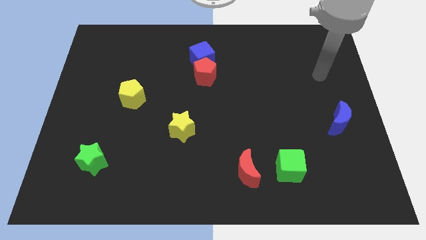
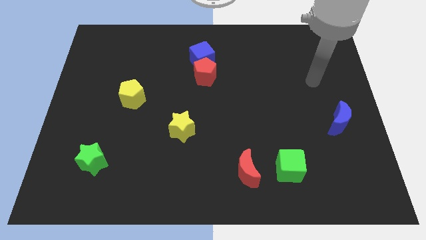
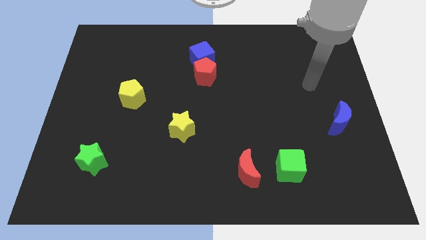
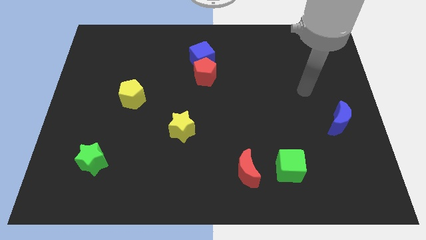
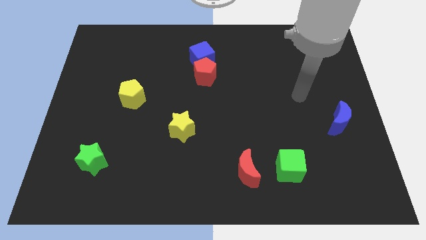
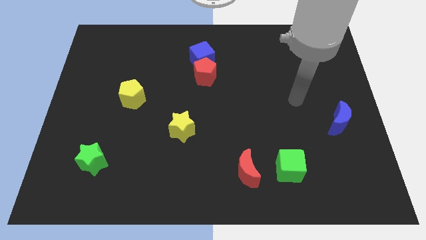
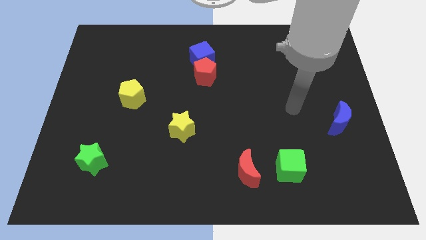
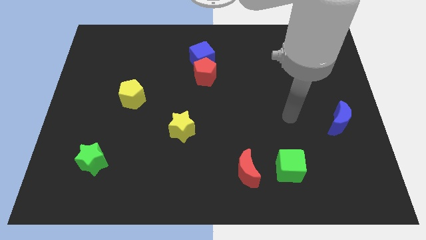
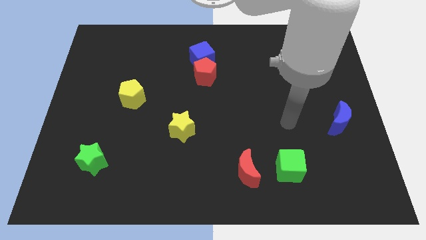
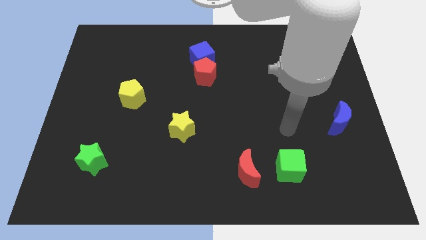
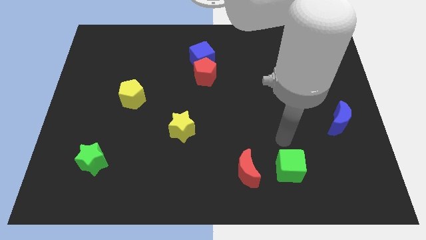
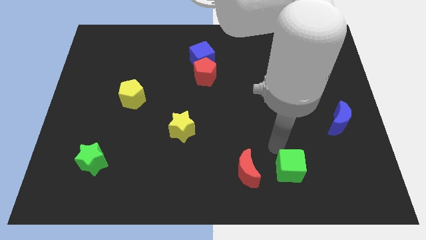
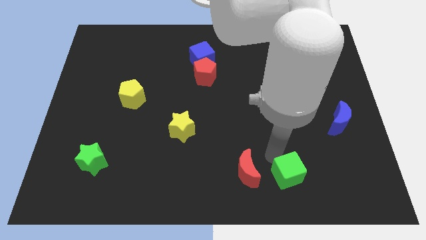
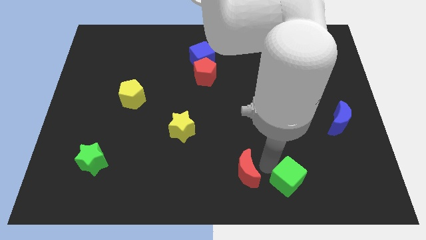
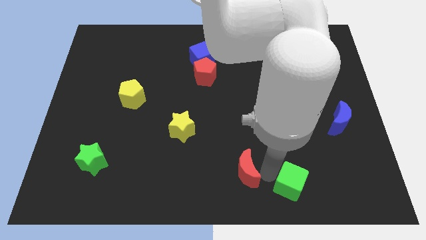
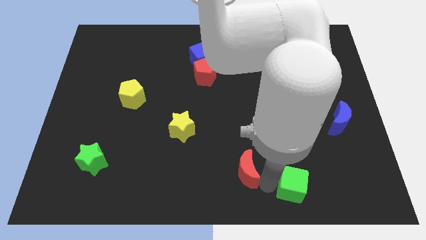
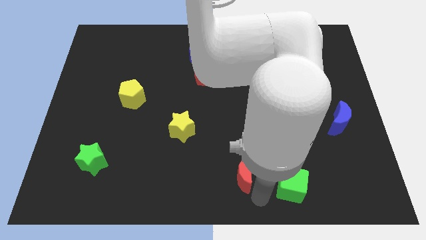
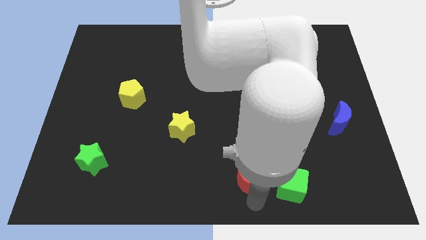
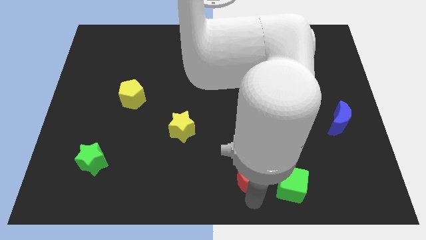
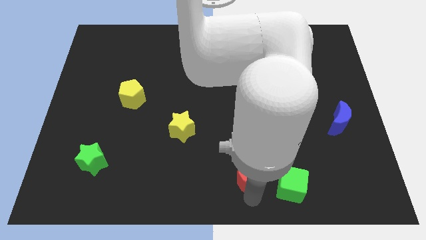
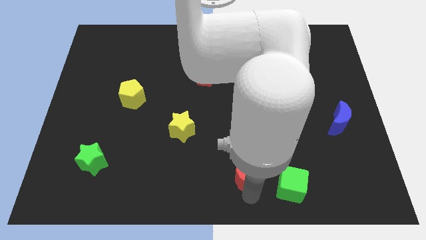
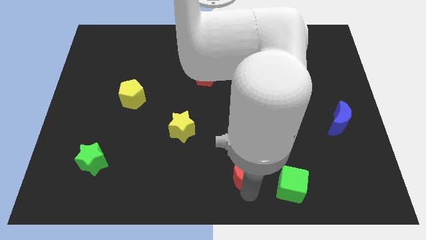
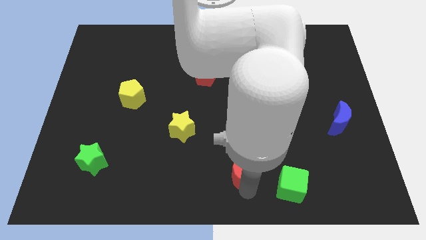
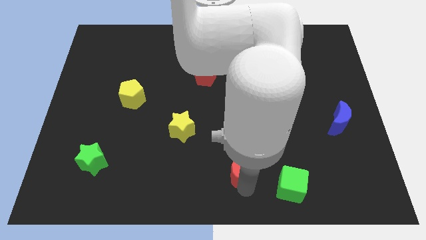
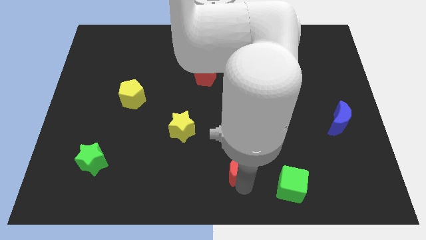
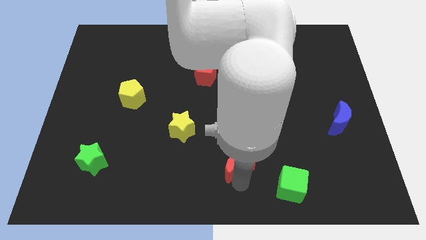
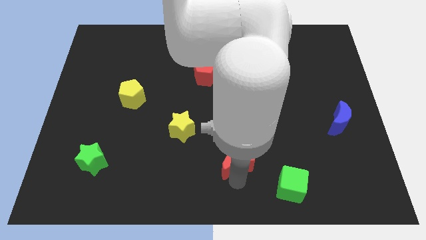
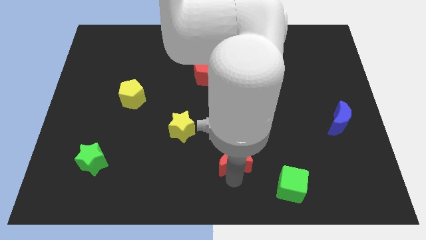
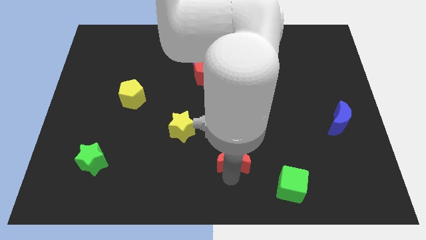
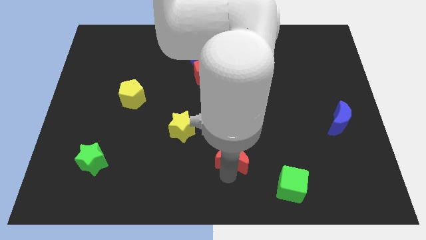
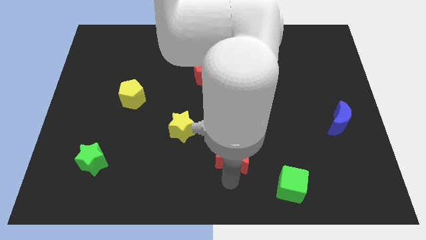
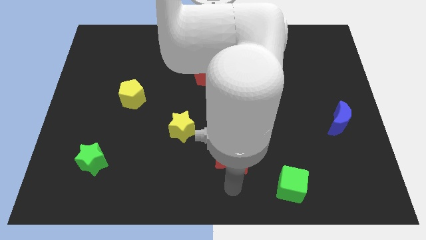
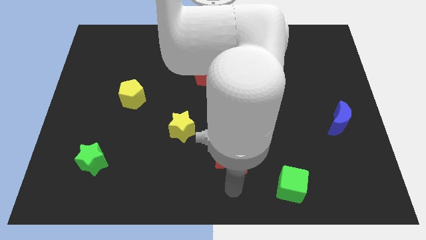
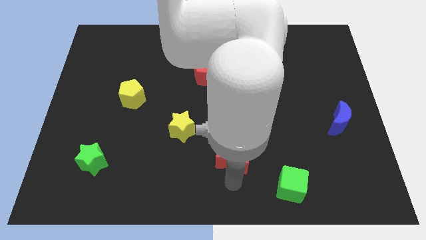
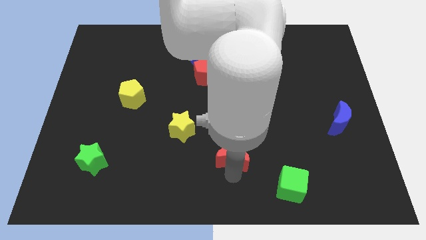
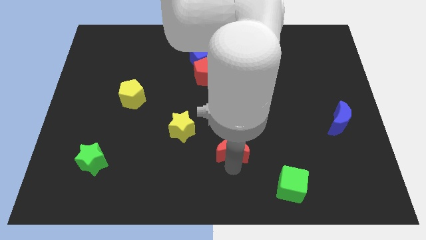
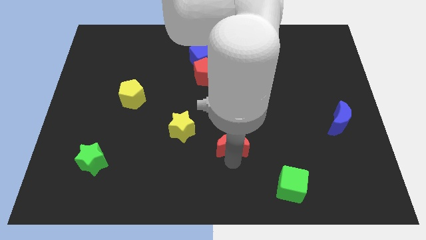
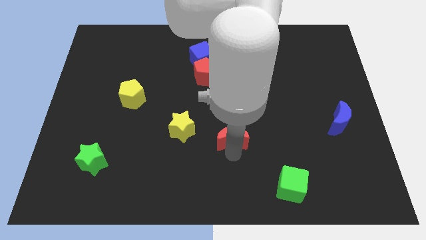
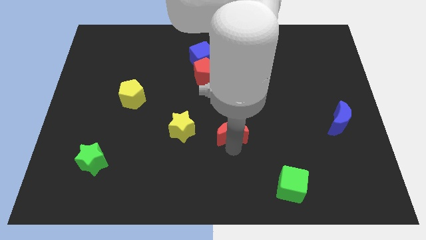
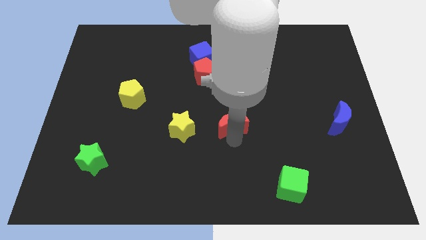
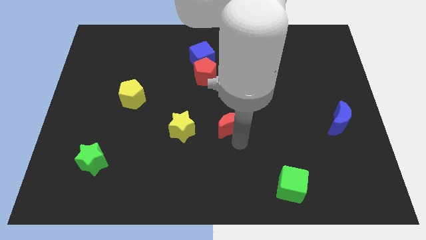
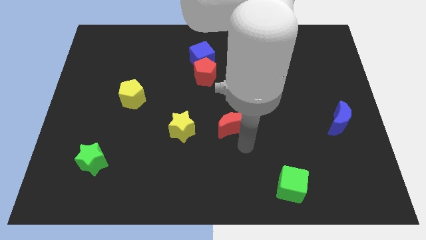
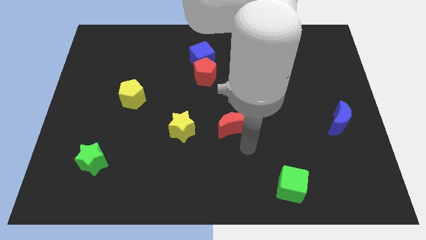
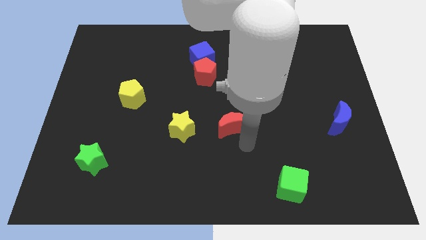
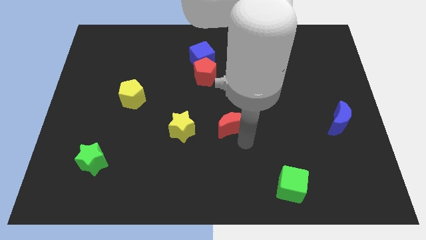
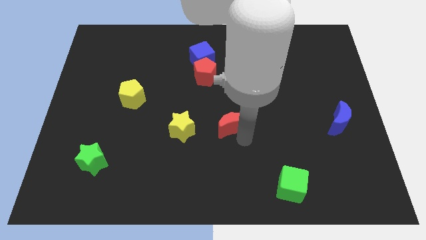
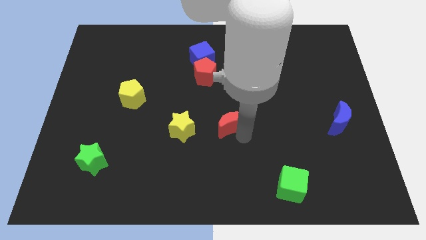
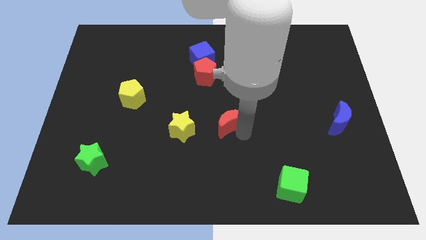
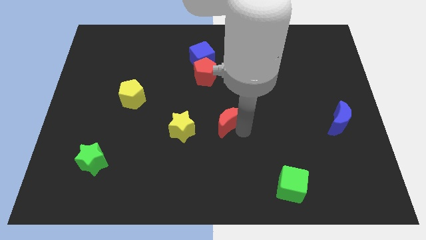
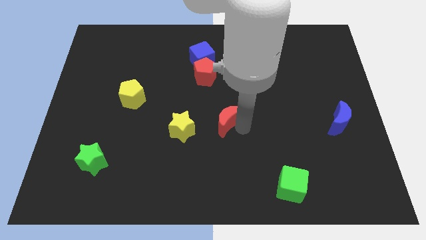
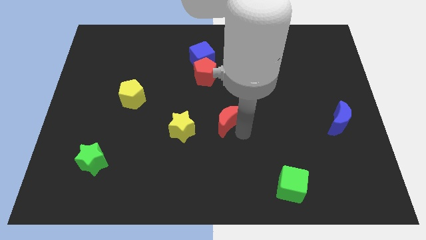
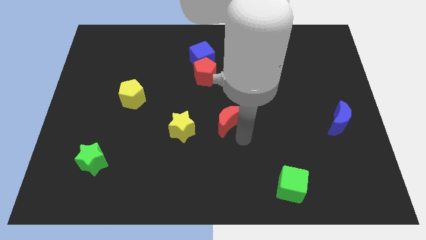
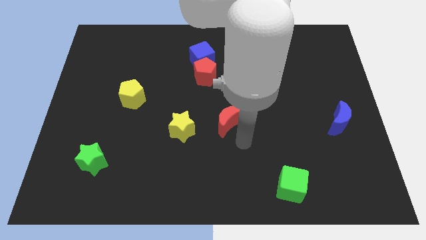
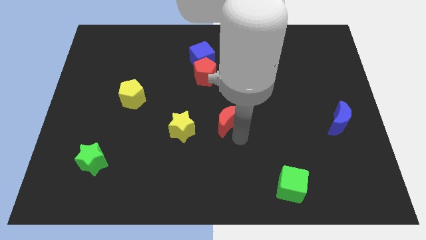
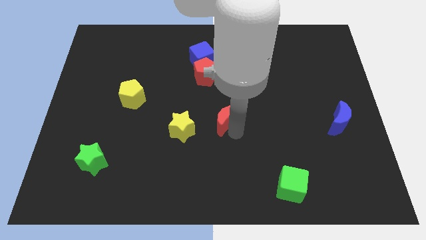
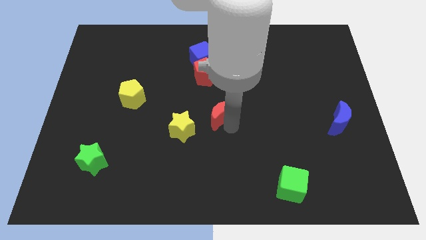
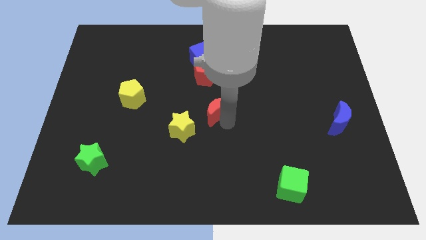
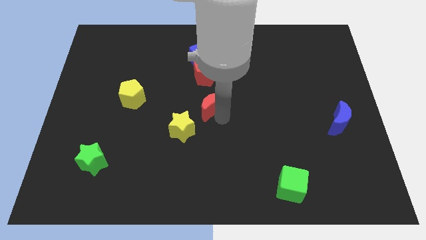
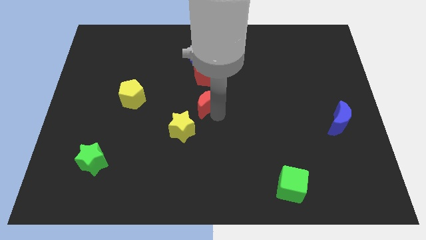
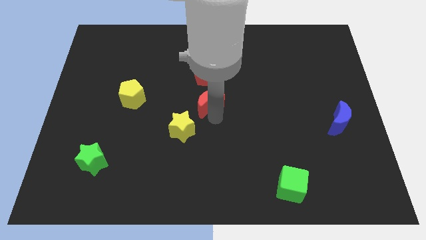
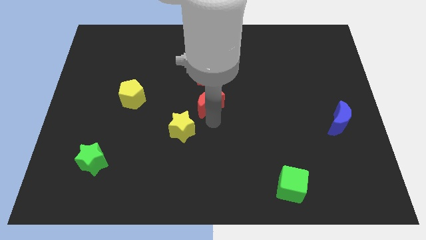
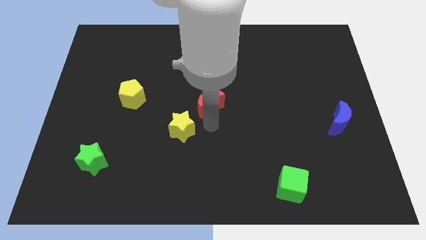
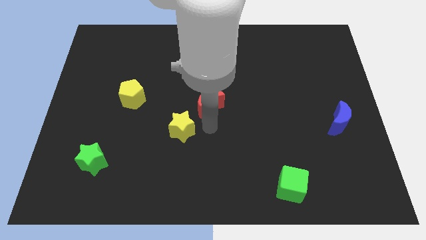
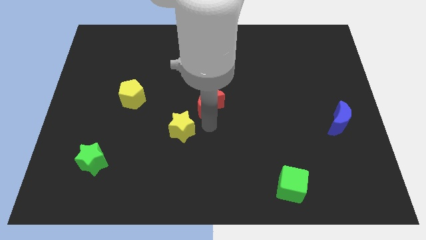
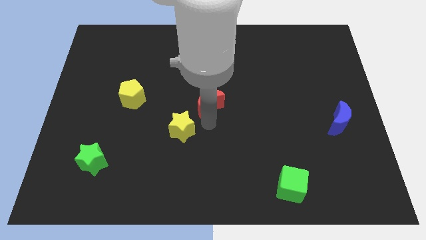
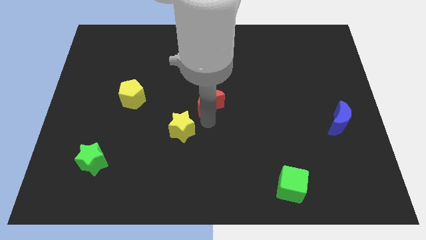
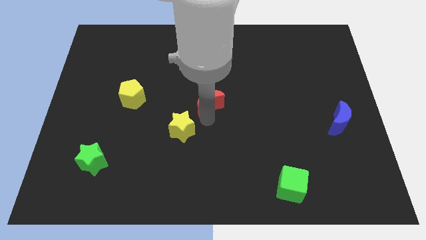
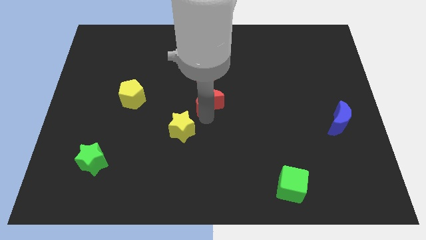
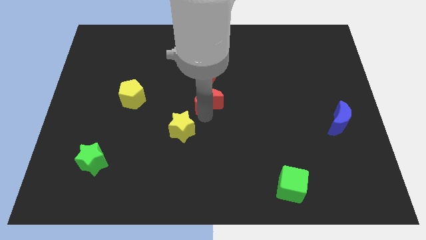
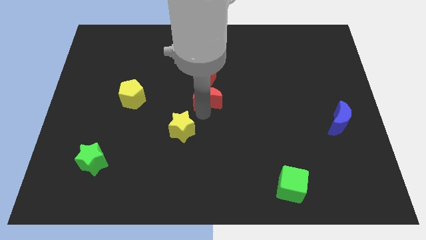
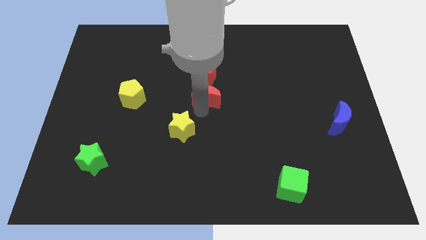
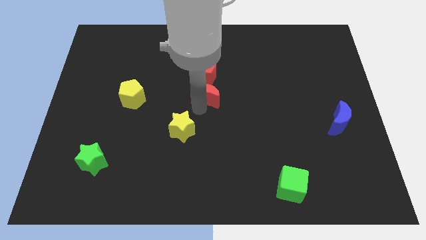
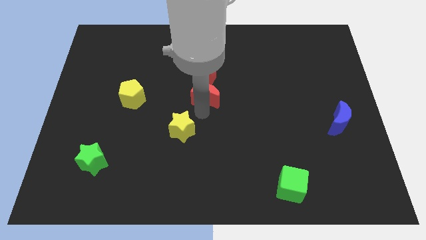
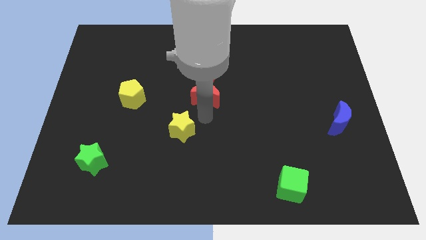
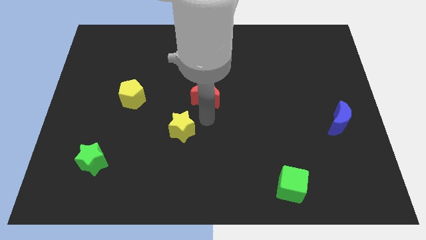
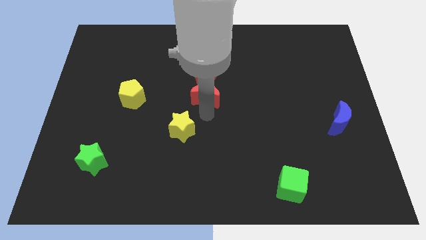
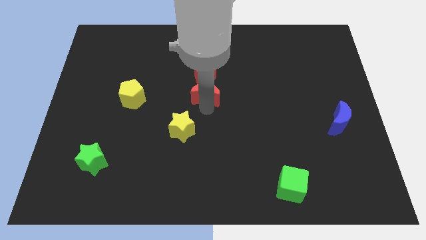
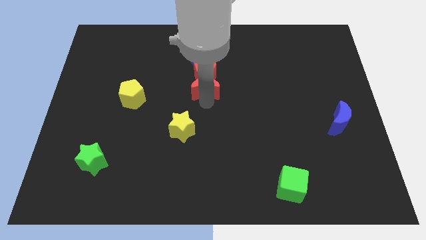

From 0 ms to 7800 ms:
move the red moon to the red pentagon
